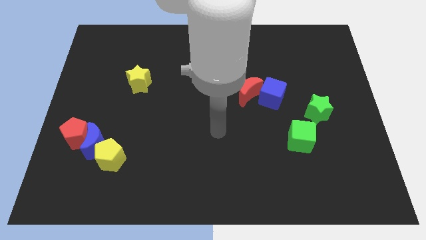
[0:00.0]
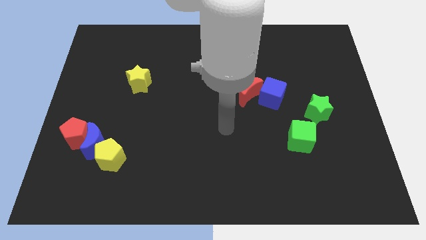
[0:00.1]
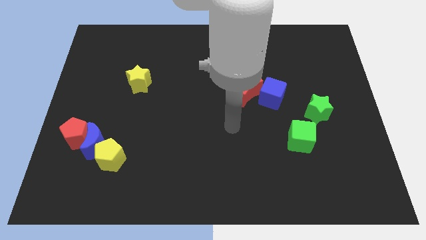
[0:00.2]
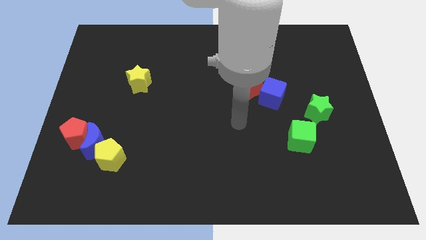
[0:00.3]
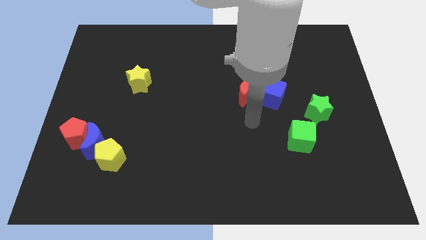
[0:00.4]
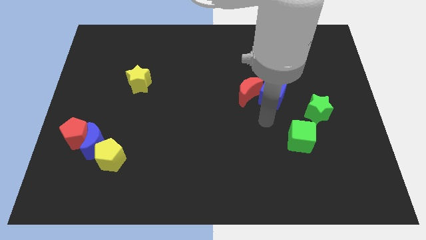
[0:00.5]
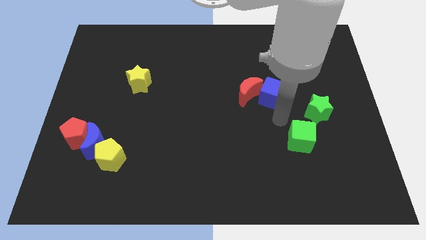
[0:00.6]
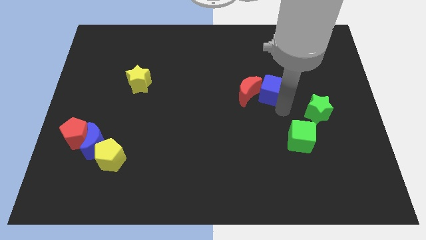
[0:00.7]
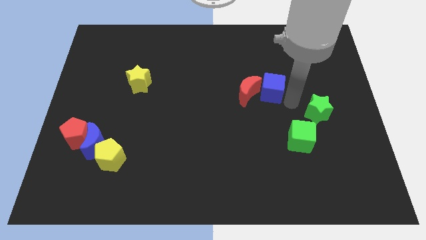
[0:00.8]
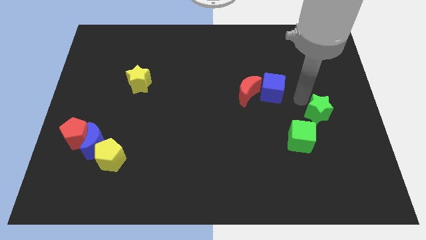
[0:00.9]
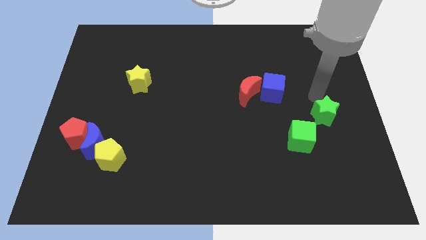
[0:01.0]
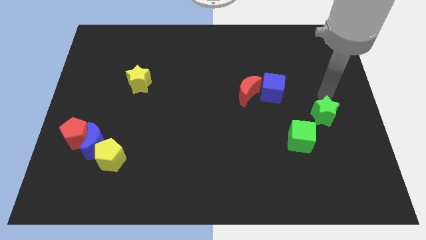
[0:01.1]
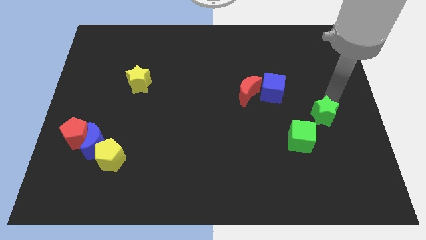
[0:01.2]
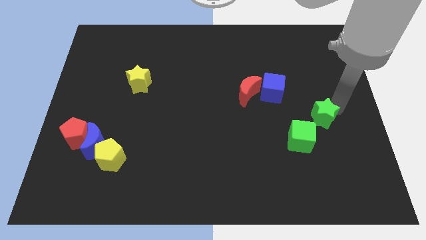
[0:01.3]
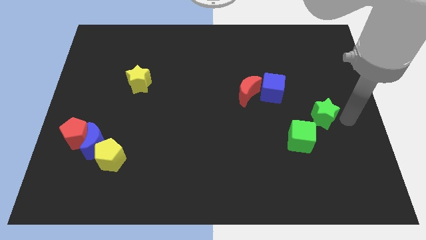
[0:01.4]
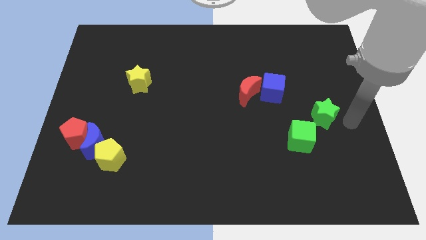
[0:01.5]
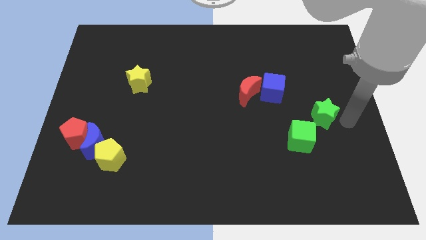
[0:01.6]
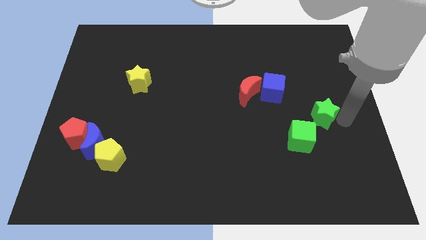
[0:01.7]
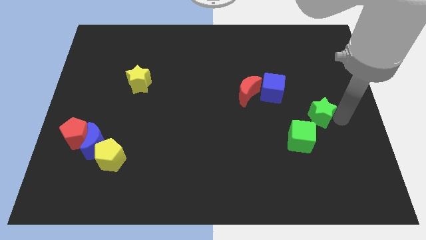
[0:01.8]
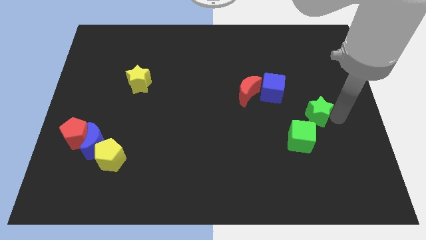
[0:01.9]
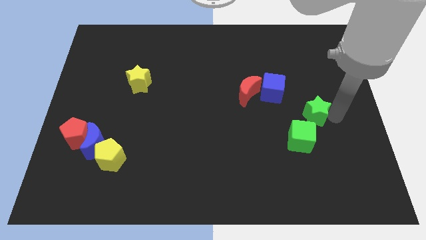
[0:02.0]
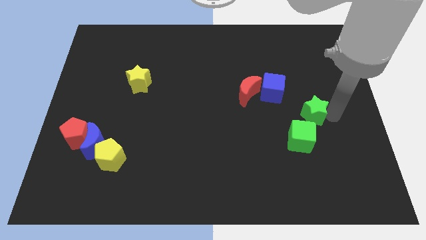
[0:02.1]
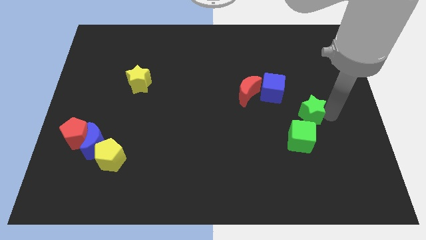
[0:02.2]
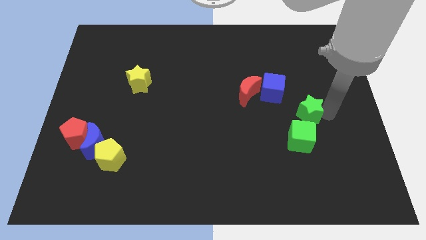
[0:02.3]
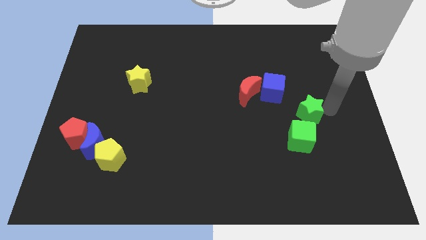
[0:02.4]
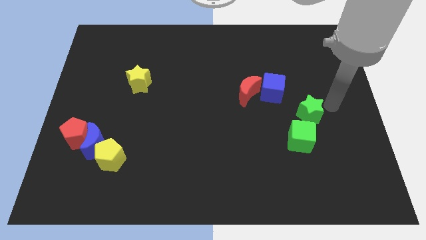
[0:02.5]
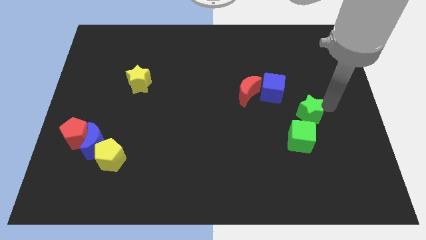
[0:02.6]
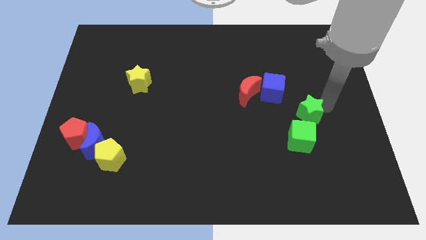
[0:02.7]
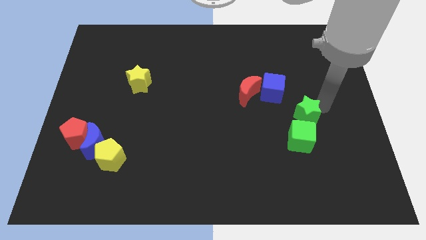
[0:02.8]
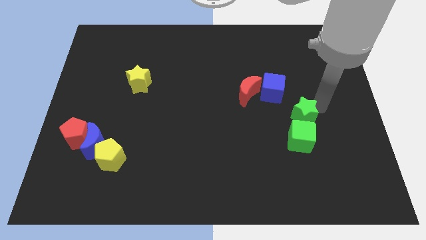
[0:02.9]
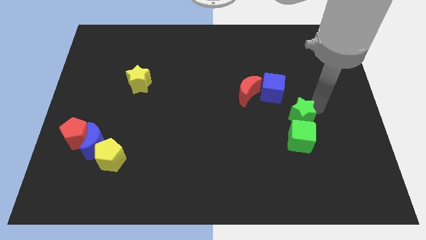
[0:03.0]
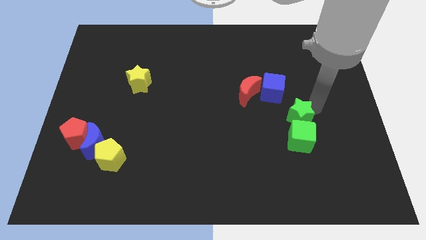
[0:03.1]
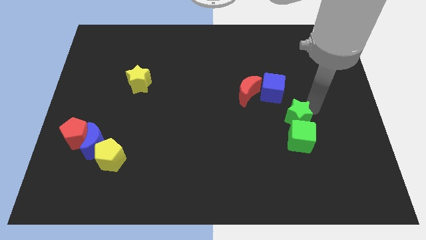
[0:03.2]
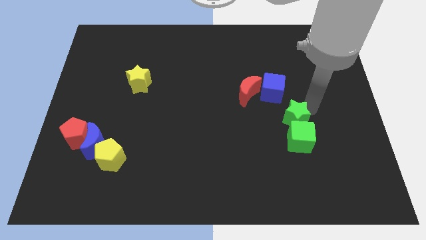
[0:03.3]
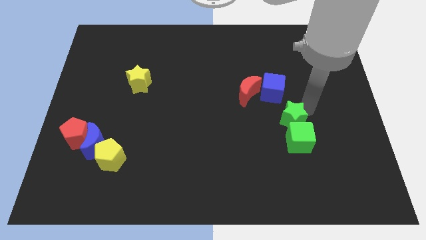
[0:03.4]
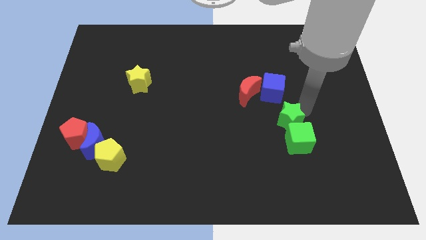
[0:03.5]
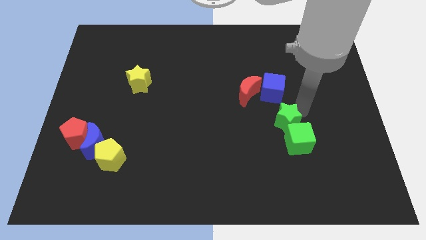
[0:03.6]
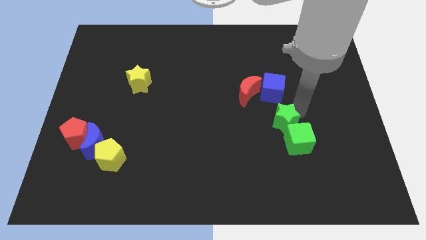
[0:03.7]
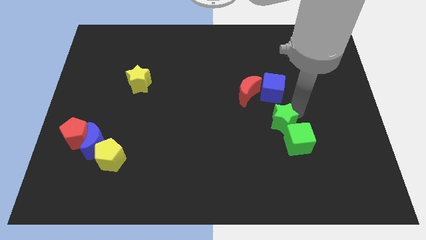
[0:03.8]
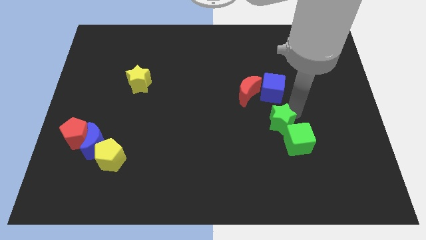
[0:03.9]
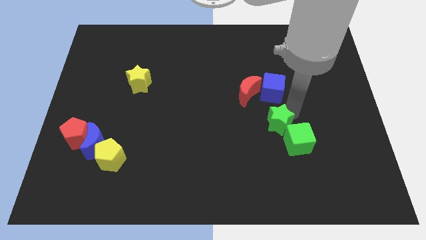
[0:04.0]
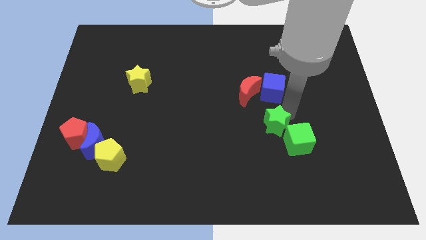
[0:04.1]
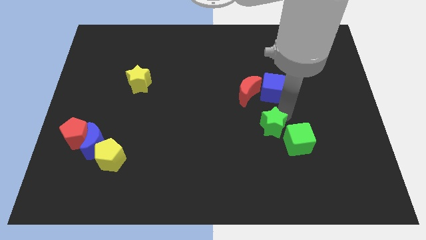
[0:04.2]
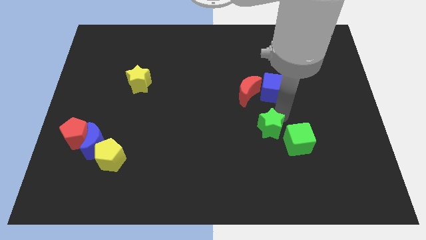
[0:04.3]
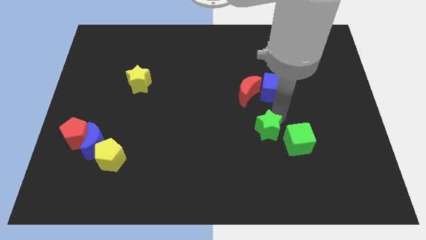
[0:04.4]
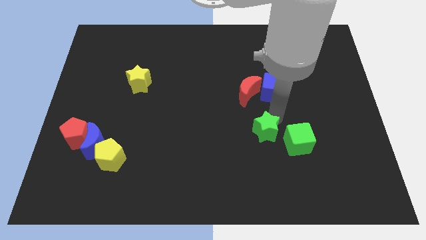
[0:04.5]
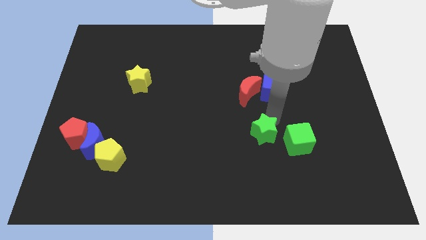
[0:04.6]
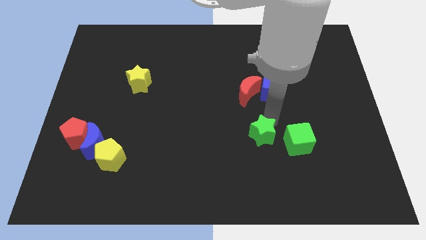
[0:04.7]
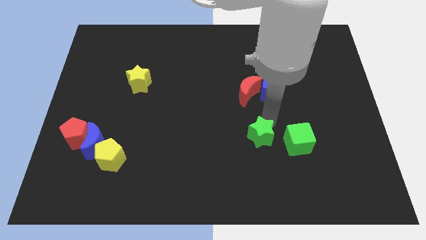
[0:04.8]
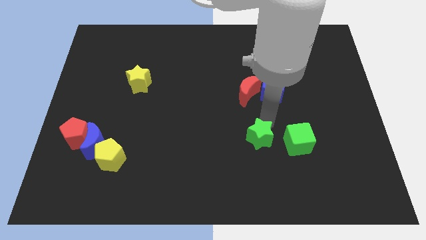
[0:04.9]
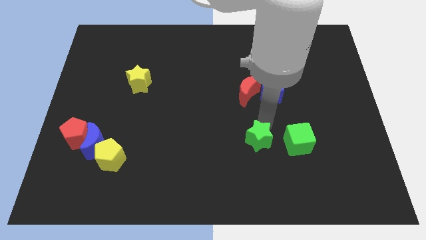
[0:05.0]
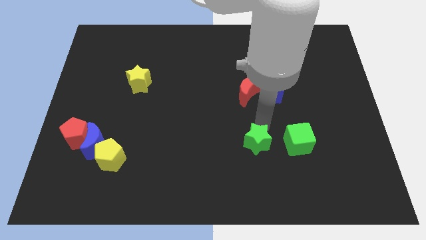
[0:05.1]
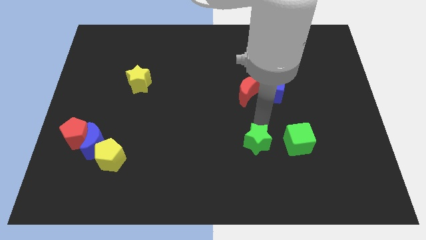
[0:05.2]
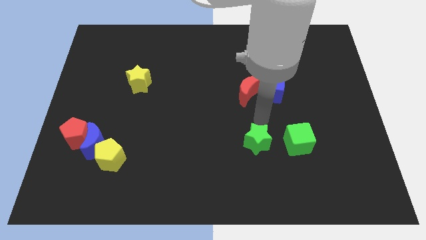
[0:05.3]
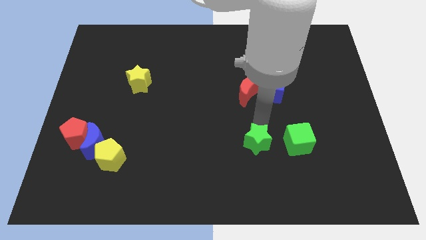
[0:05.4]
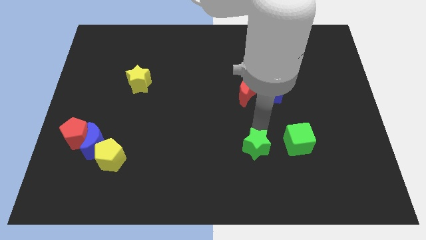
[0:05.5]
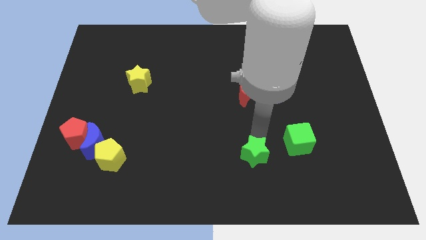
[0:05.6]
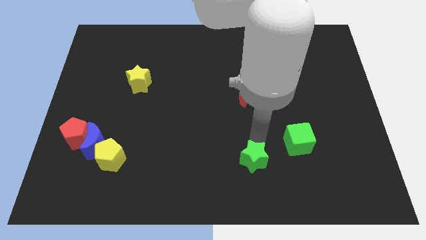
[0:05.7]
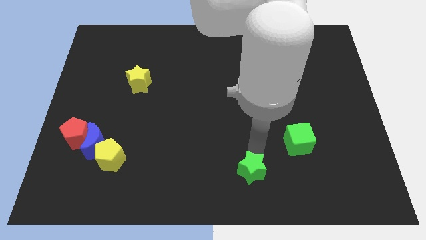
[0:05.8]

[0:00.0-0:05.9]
slide the green star to the bottom

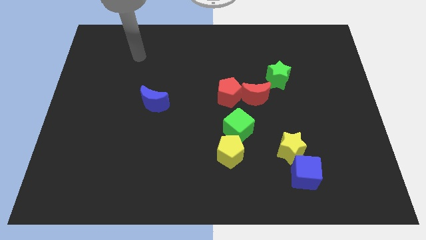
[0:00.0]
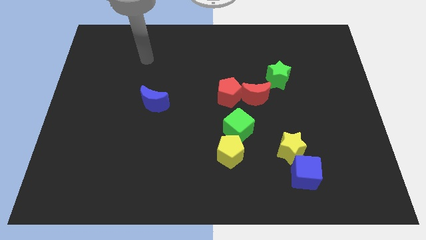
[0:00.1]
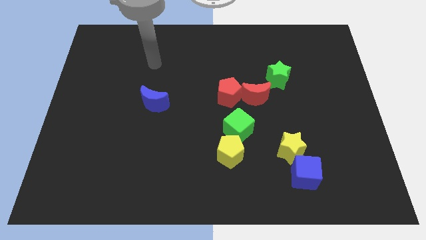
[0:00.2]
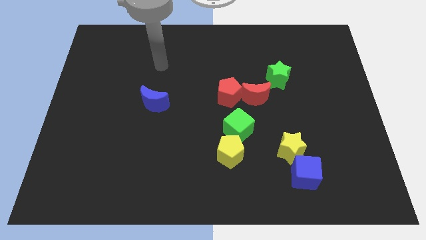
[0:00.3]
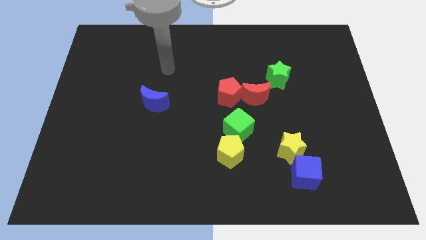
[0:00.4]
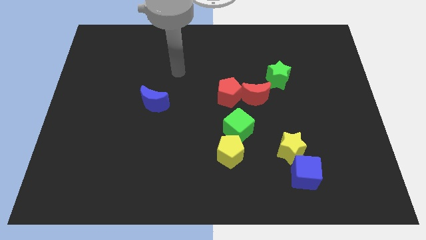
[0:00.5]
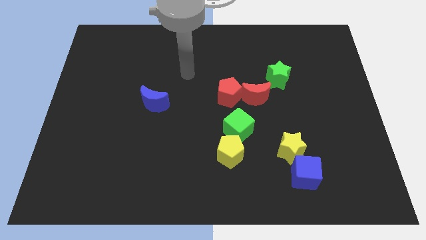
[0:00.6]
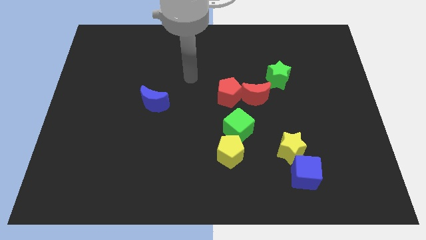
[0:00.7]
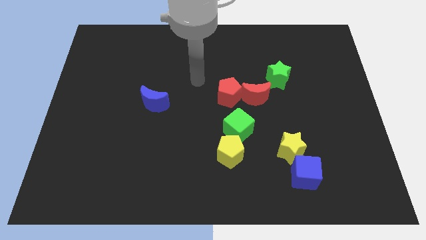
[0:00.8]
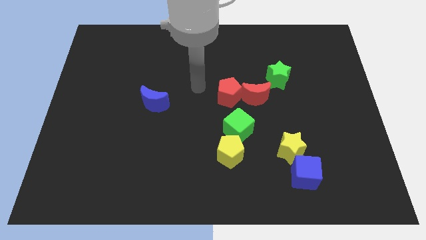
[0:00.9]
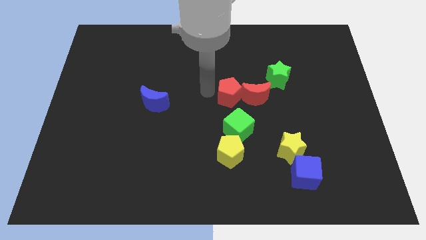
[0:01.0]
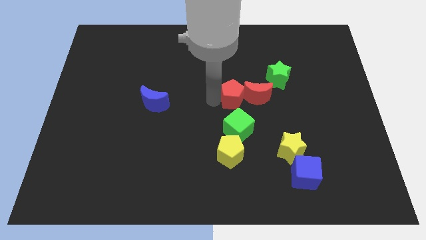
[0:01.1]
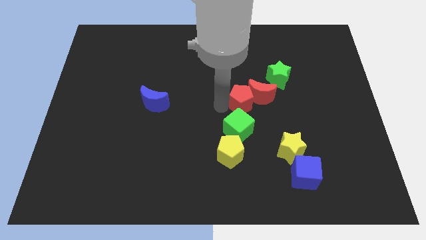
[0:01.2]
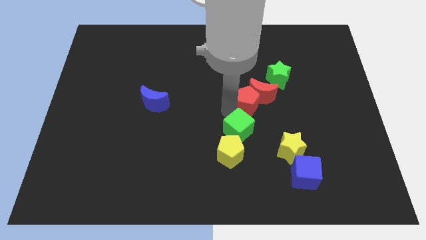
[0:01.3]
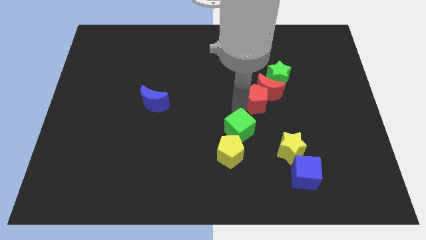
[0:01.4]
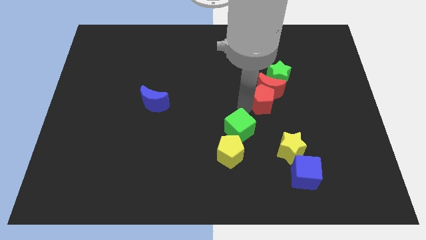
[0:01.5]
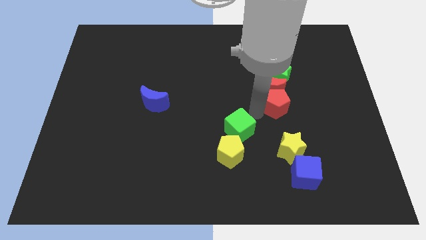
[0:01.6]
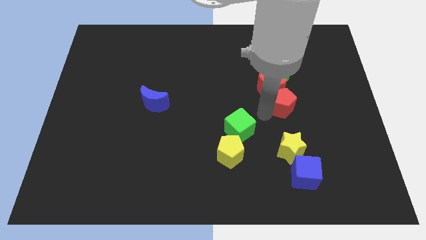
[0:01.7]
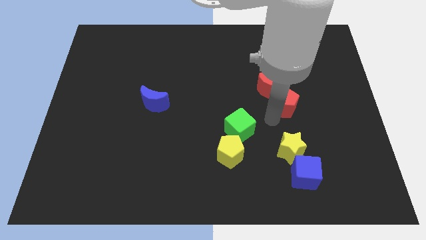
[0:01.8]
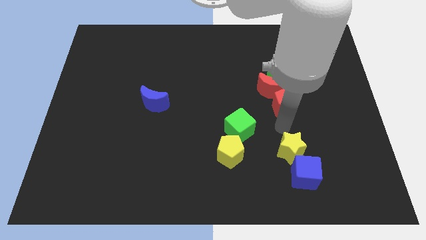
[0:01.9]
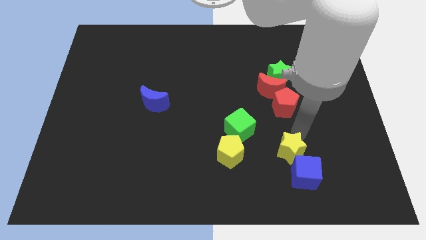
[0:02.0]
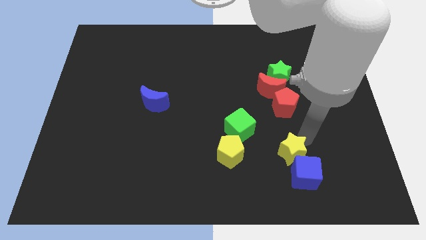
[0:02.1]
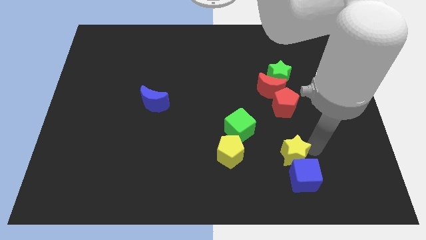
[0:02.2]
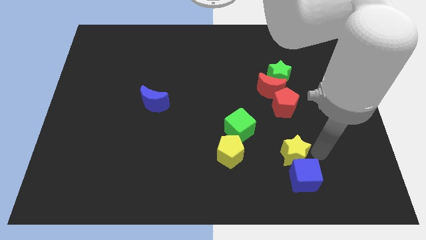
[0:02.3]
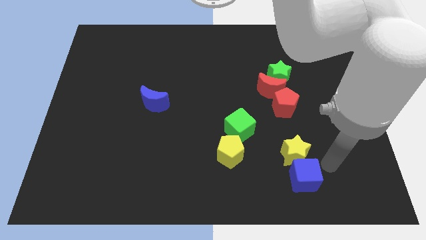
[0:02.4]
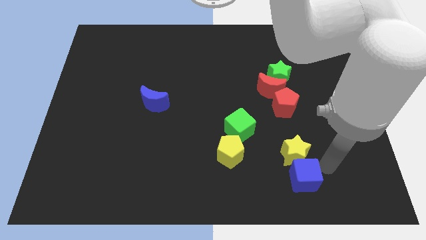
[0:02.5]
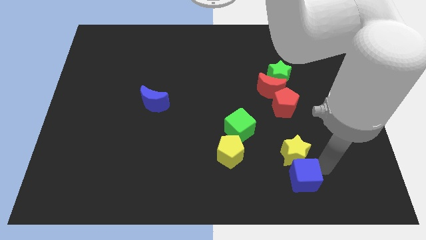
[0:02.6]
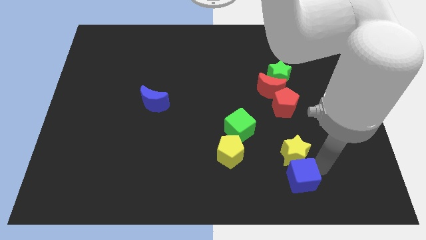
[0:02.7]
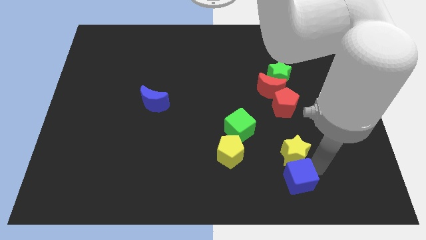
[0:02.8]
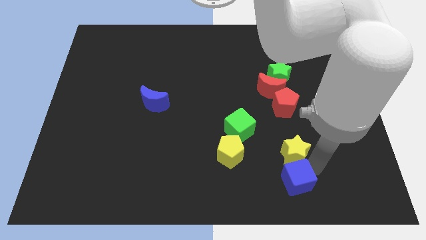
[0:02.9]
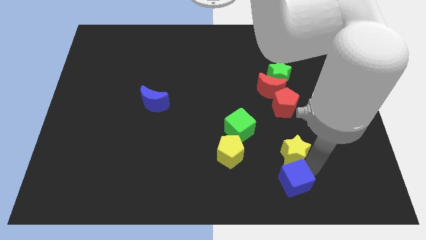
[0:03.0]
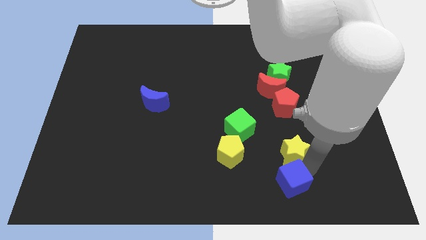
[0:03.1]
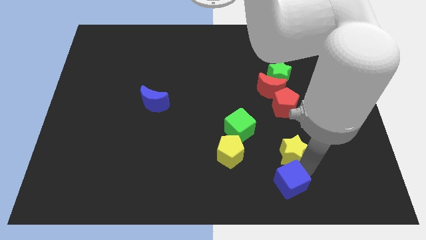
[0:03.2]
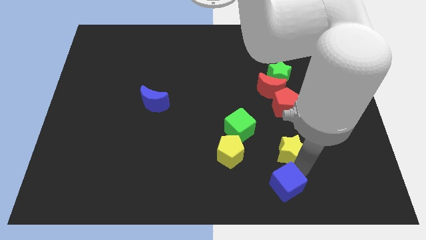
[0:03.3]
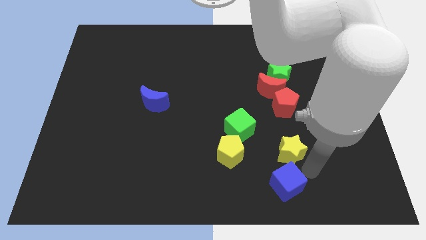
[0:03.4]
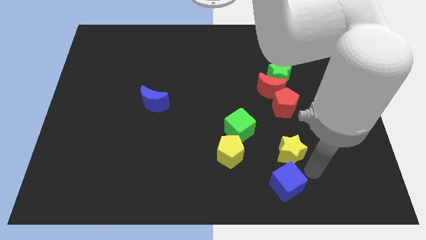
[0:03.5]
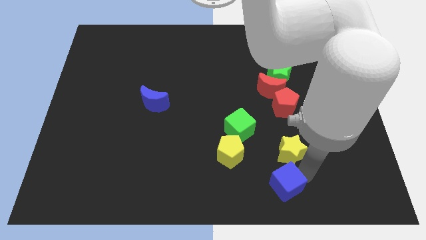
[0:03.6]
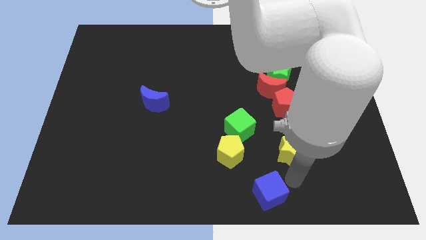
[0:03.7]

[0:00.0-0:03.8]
put the blue cube to the bottom
